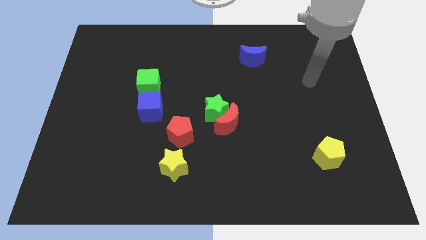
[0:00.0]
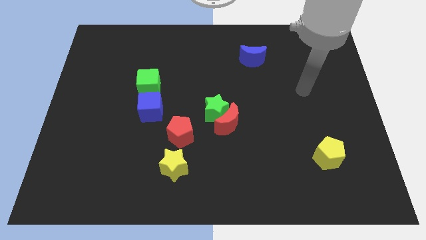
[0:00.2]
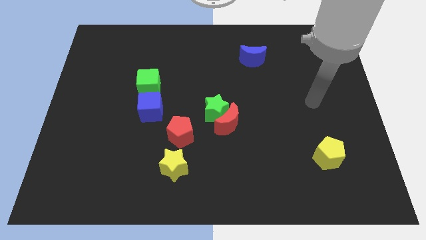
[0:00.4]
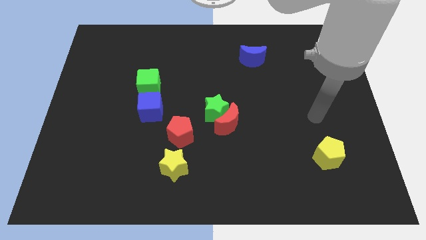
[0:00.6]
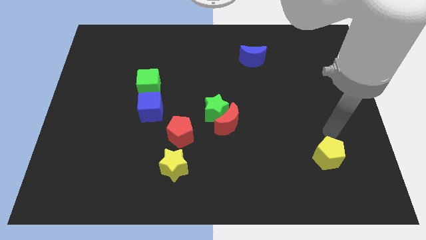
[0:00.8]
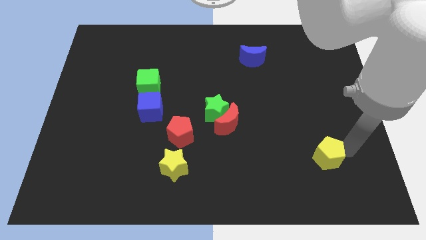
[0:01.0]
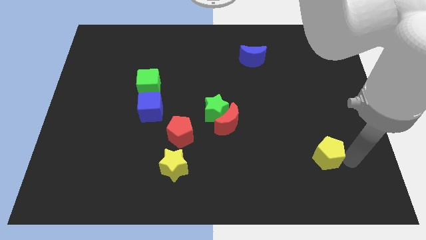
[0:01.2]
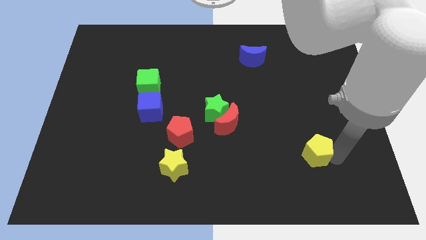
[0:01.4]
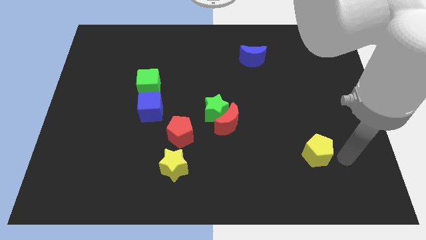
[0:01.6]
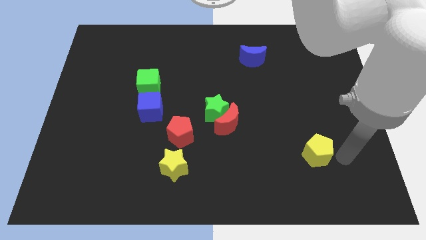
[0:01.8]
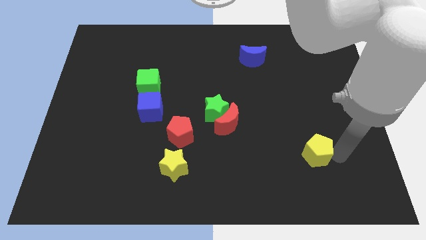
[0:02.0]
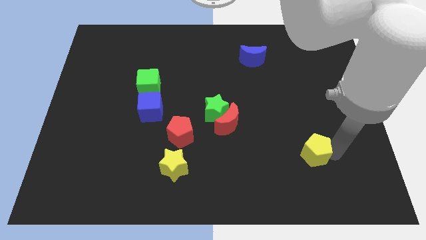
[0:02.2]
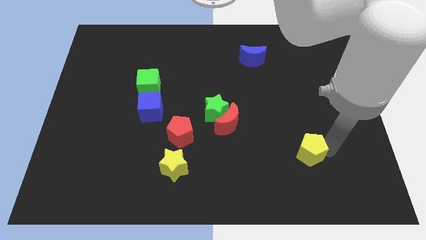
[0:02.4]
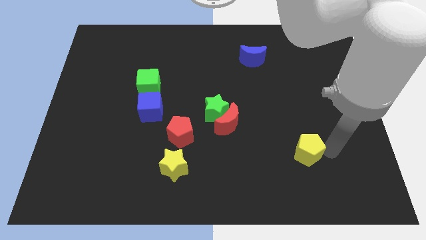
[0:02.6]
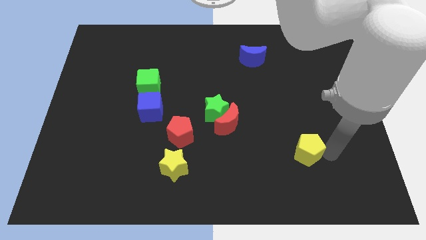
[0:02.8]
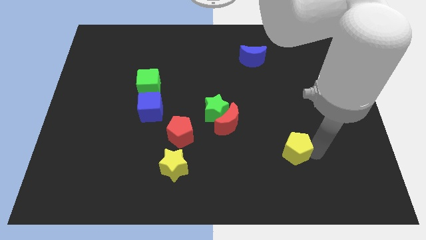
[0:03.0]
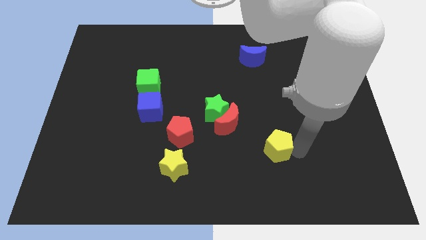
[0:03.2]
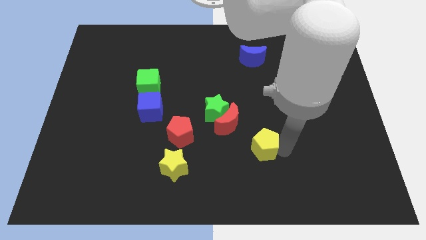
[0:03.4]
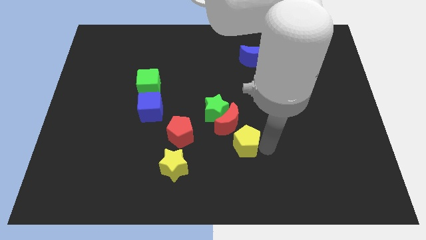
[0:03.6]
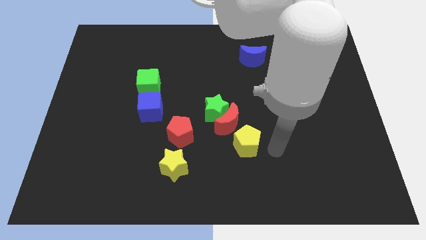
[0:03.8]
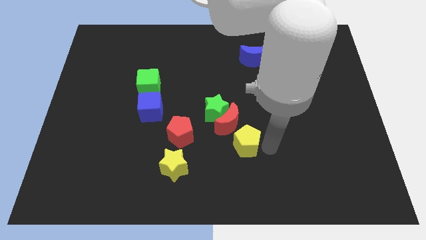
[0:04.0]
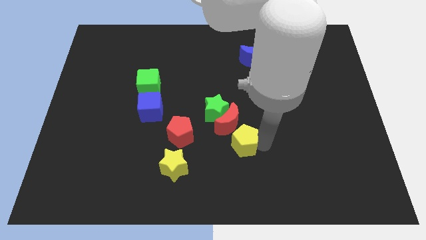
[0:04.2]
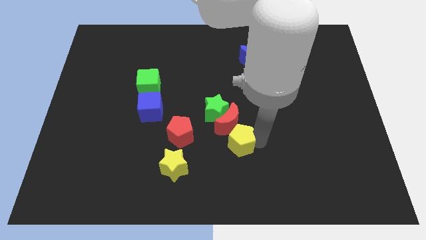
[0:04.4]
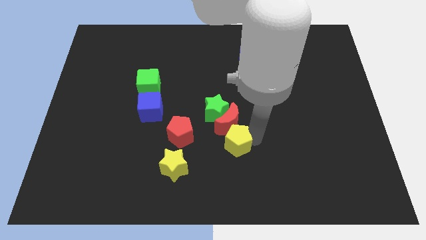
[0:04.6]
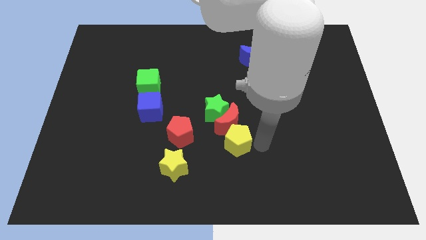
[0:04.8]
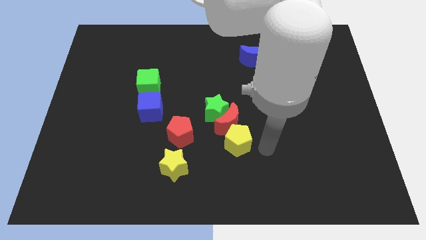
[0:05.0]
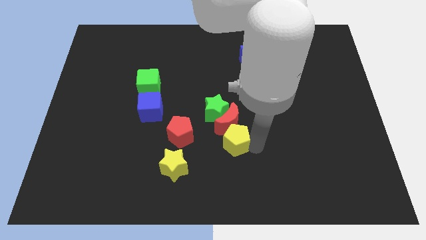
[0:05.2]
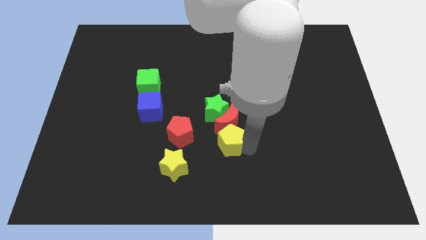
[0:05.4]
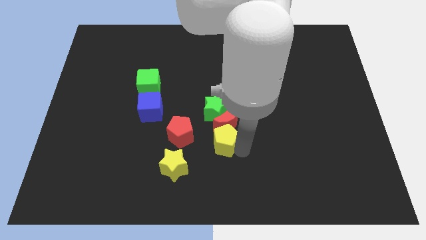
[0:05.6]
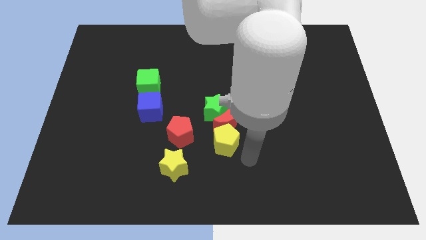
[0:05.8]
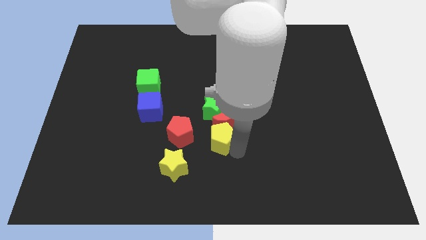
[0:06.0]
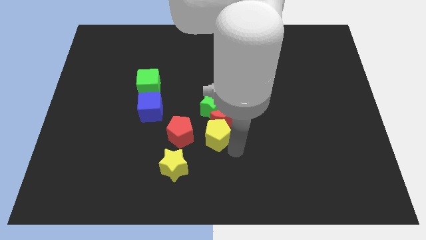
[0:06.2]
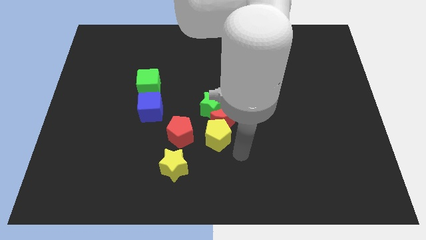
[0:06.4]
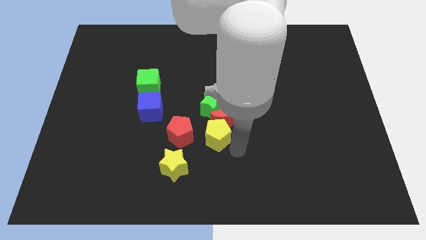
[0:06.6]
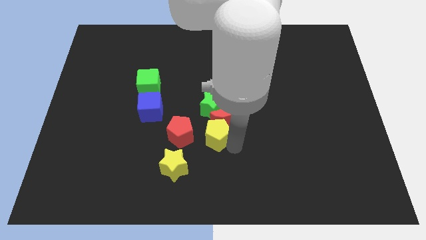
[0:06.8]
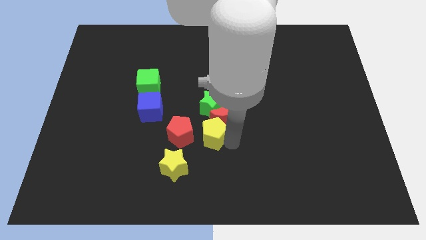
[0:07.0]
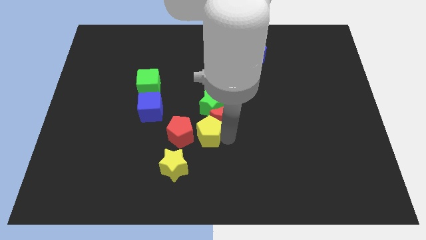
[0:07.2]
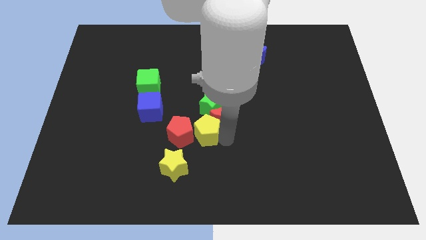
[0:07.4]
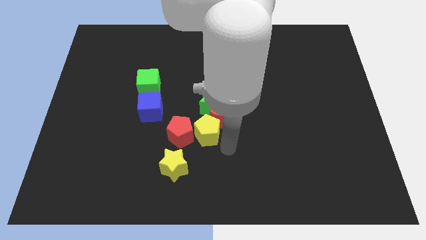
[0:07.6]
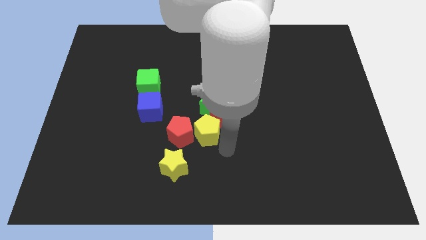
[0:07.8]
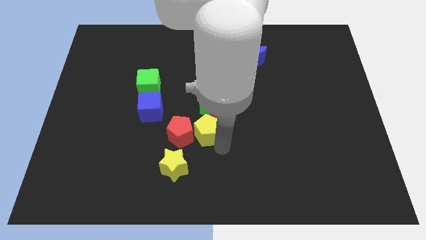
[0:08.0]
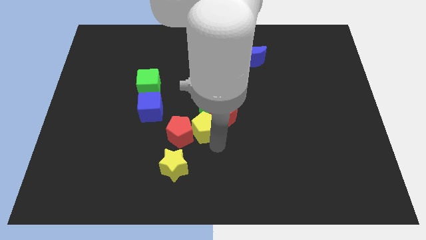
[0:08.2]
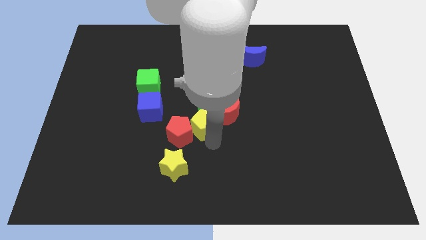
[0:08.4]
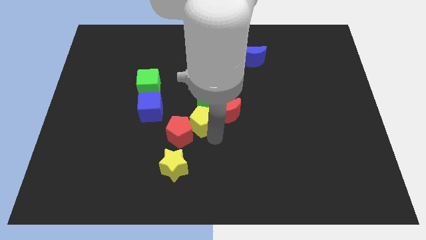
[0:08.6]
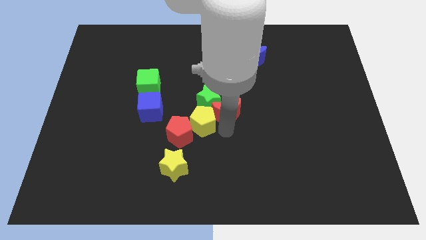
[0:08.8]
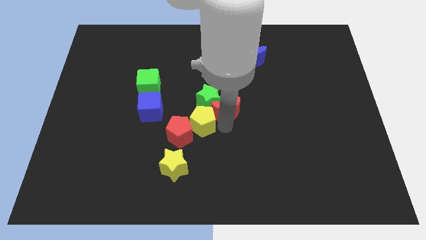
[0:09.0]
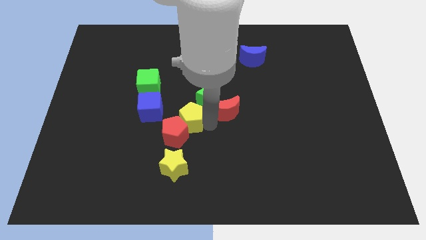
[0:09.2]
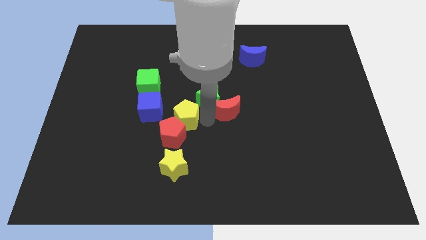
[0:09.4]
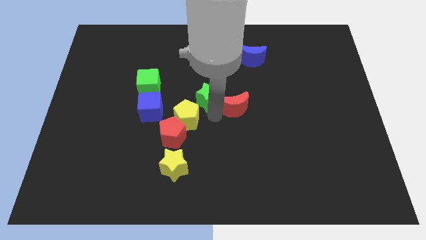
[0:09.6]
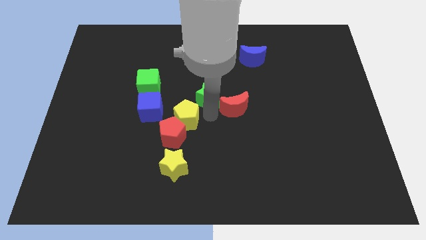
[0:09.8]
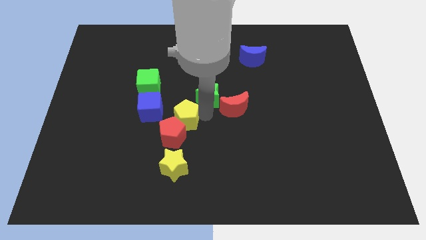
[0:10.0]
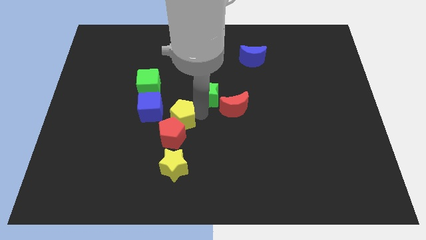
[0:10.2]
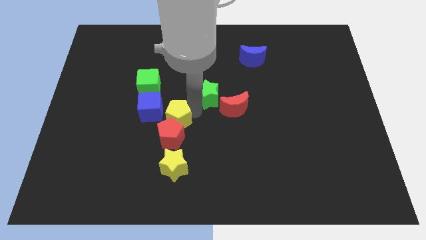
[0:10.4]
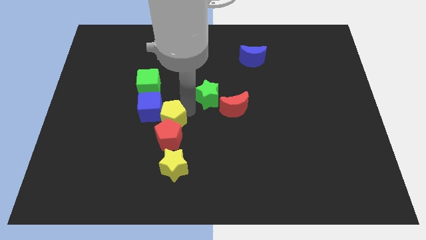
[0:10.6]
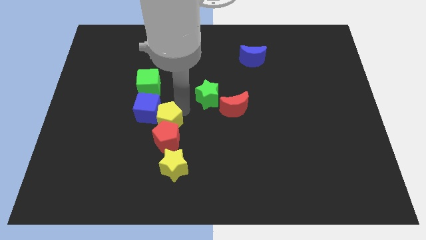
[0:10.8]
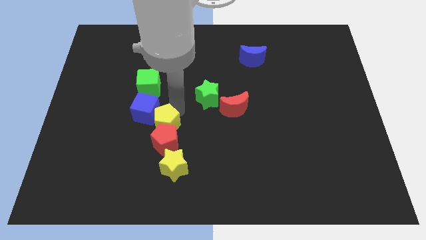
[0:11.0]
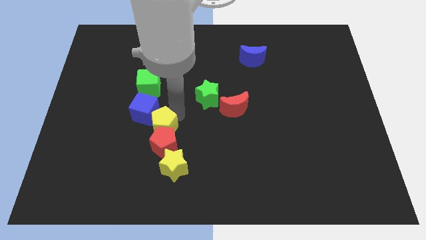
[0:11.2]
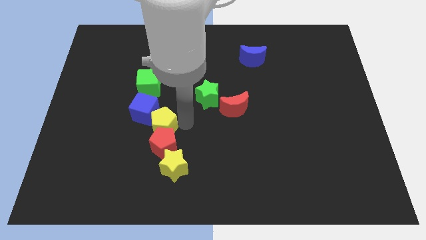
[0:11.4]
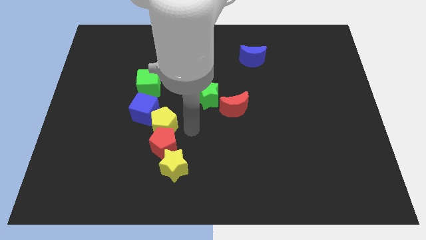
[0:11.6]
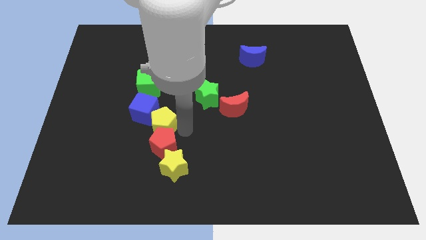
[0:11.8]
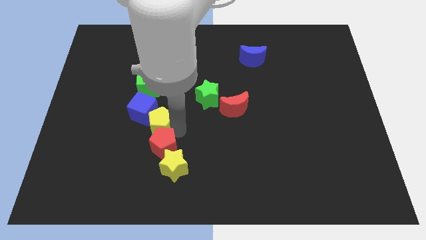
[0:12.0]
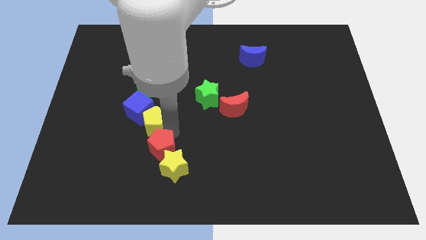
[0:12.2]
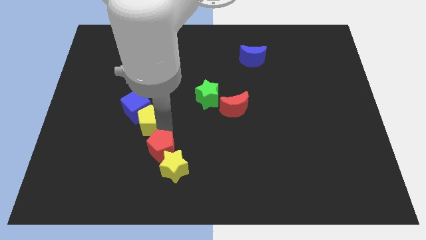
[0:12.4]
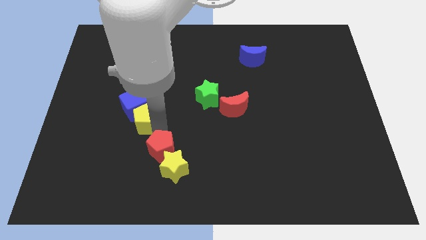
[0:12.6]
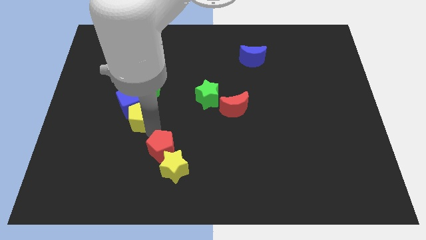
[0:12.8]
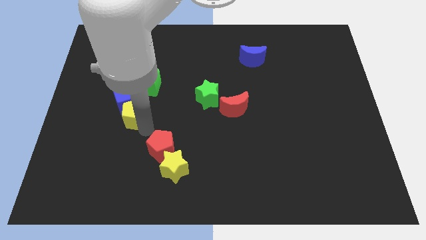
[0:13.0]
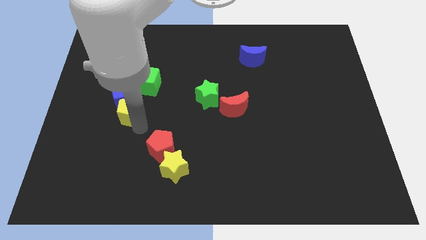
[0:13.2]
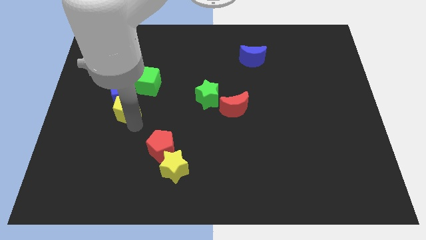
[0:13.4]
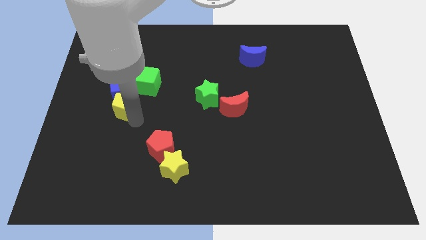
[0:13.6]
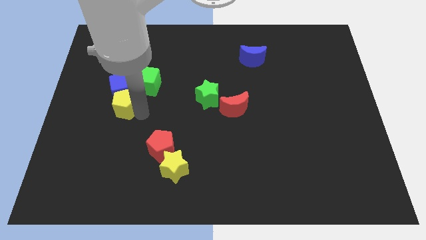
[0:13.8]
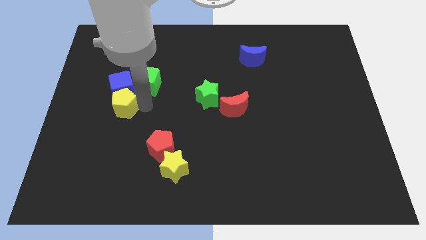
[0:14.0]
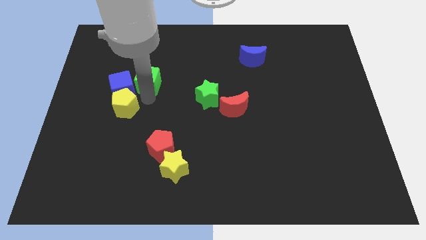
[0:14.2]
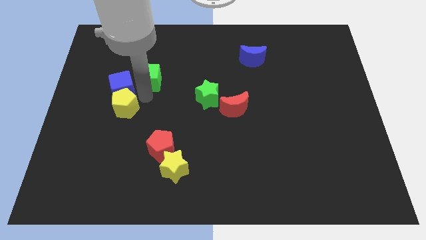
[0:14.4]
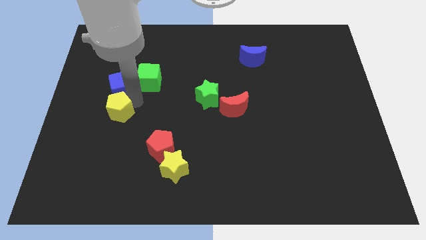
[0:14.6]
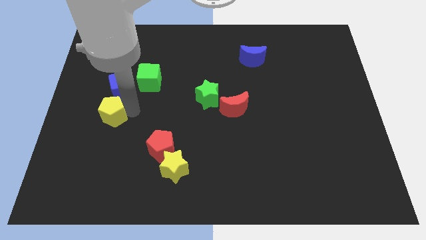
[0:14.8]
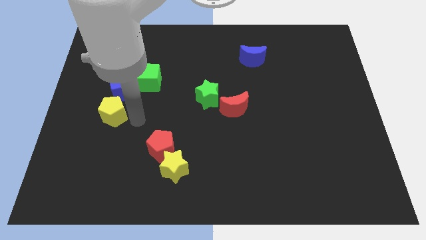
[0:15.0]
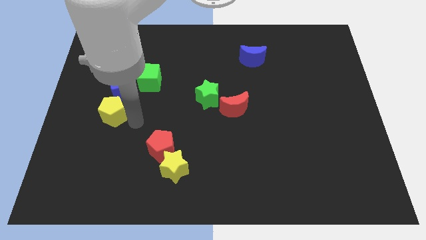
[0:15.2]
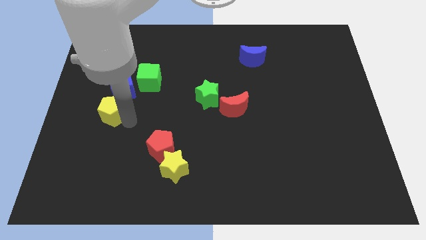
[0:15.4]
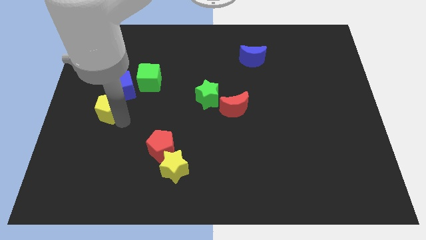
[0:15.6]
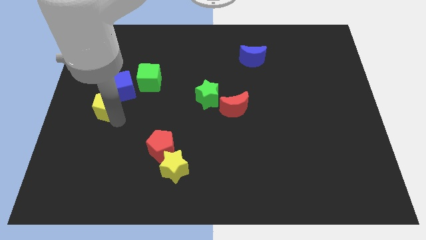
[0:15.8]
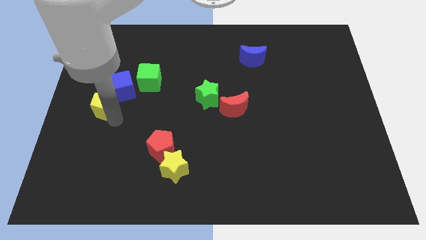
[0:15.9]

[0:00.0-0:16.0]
put the yellow pentagon to the center left
